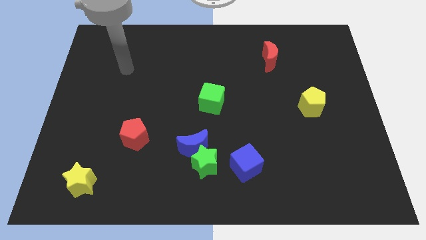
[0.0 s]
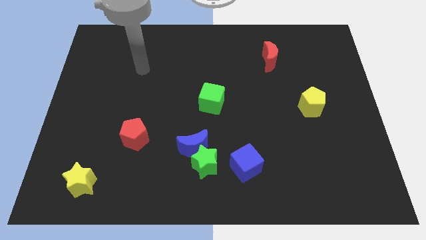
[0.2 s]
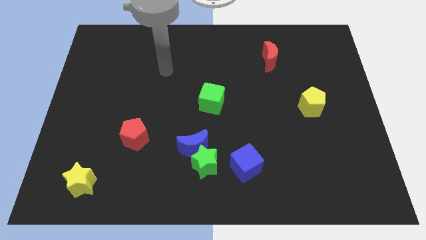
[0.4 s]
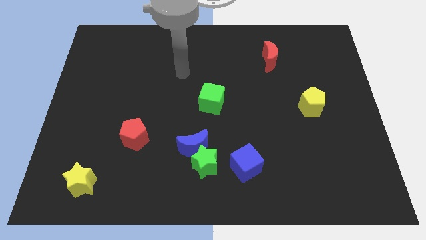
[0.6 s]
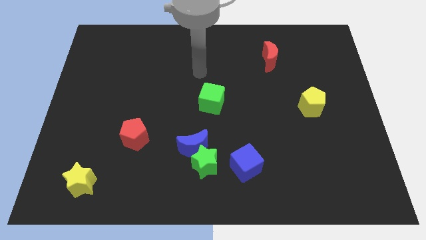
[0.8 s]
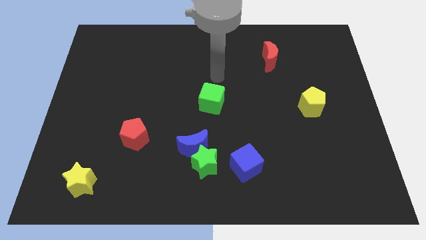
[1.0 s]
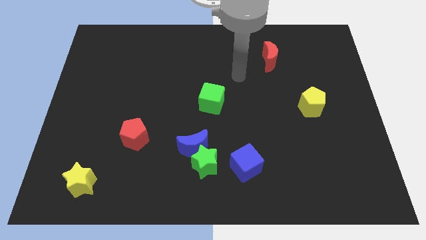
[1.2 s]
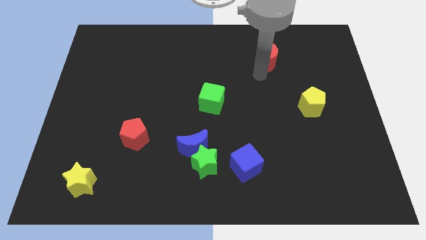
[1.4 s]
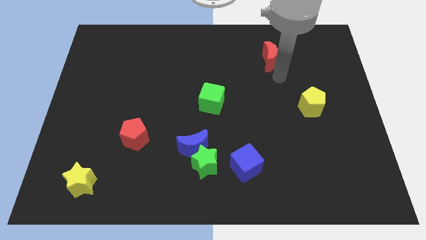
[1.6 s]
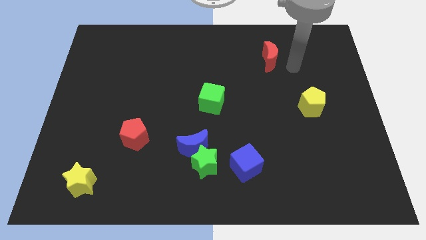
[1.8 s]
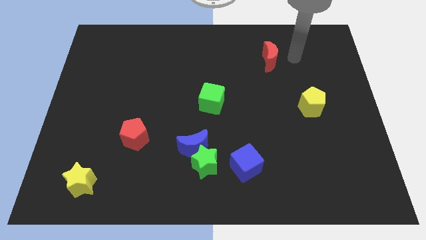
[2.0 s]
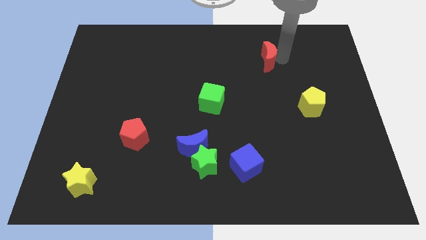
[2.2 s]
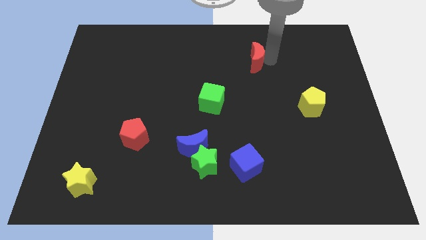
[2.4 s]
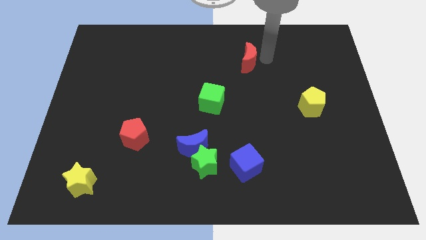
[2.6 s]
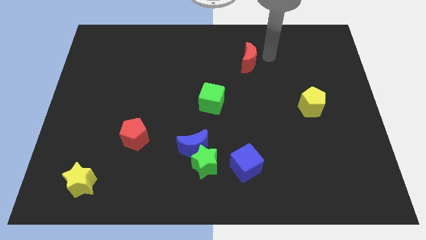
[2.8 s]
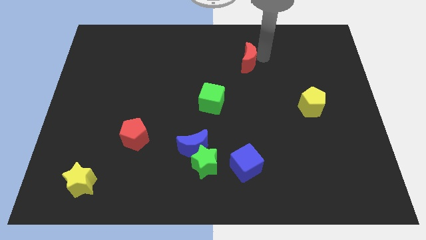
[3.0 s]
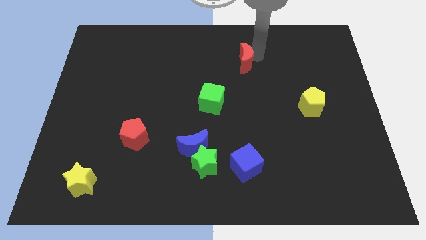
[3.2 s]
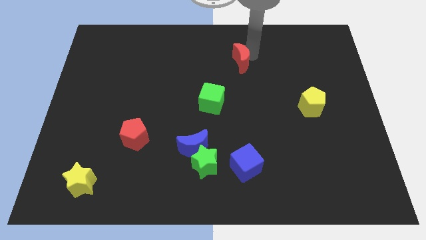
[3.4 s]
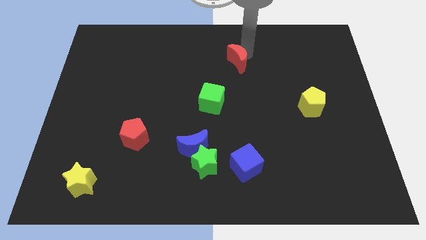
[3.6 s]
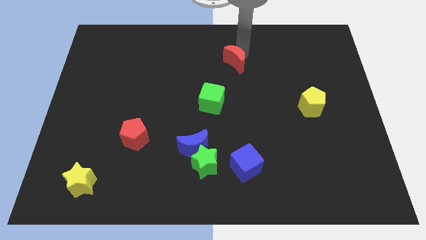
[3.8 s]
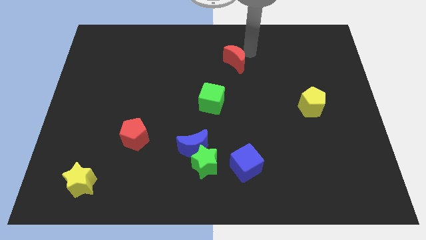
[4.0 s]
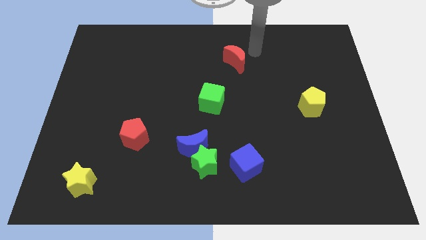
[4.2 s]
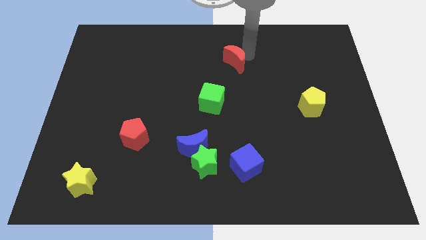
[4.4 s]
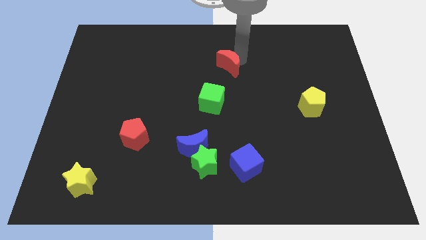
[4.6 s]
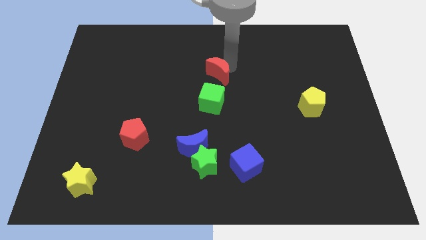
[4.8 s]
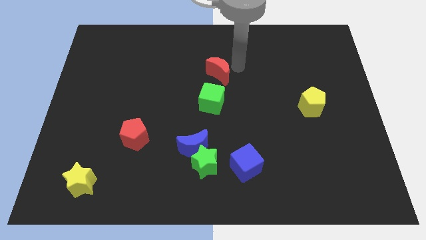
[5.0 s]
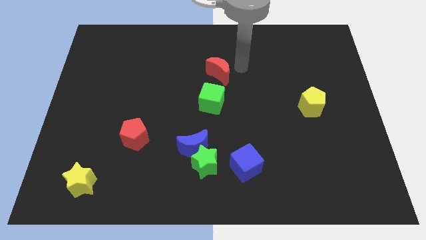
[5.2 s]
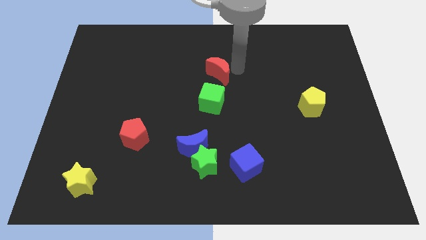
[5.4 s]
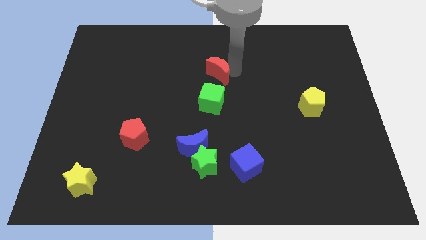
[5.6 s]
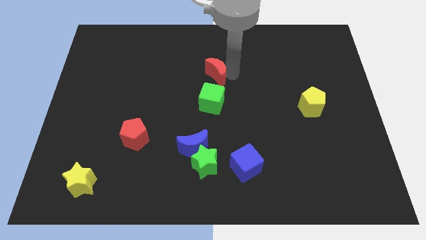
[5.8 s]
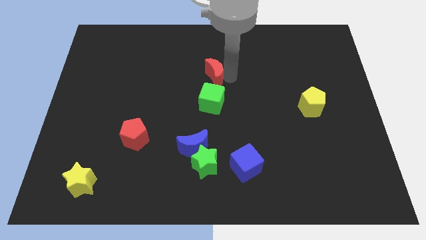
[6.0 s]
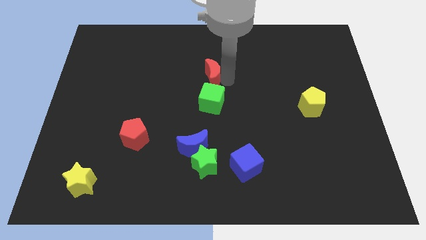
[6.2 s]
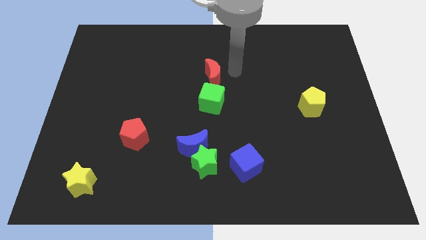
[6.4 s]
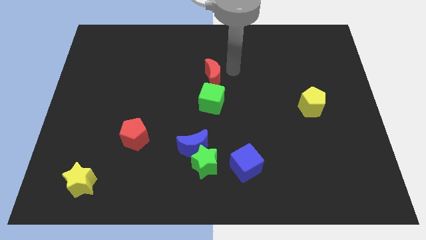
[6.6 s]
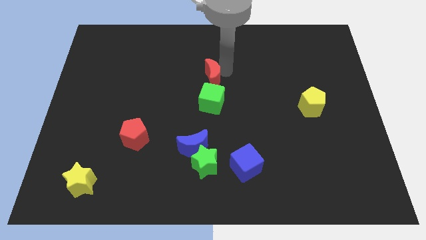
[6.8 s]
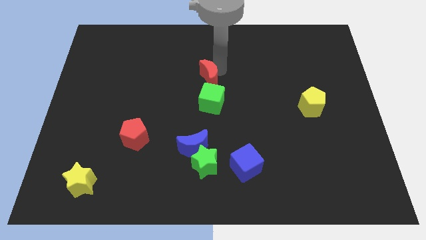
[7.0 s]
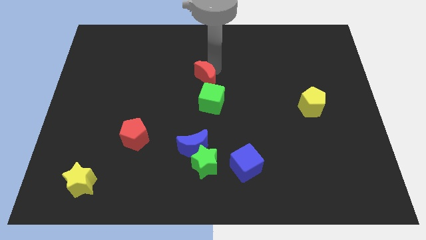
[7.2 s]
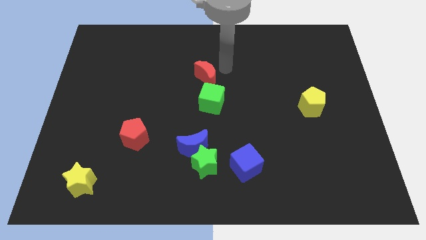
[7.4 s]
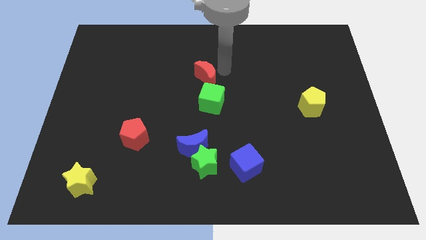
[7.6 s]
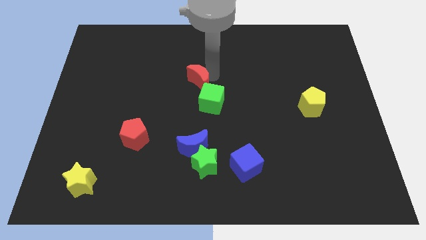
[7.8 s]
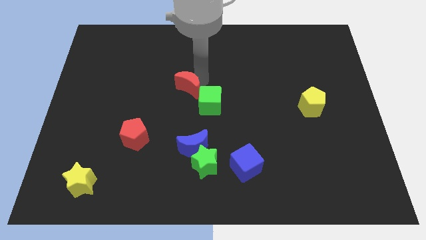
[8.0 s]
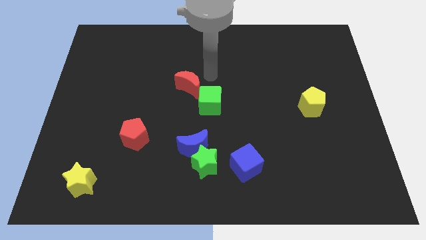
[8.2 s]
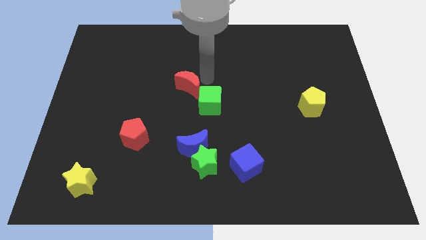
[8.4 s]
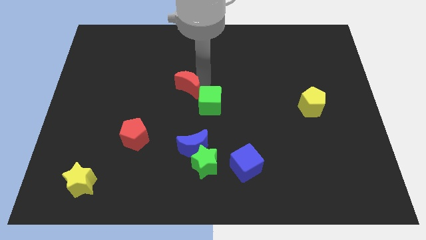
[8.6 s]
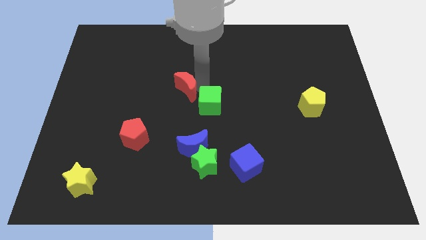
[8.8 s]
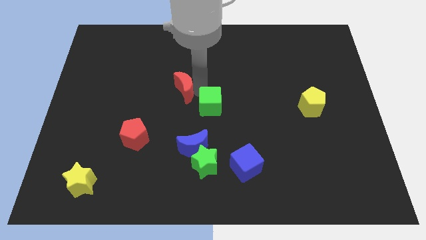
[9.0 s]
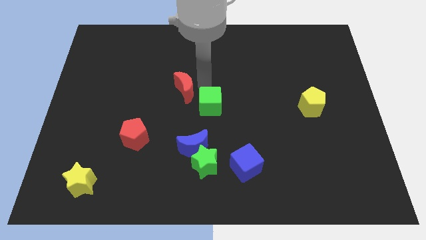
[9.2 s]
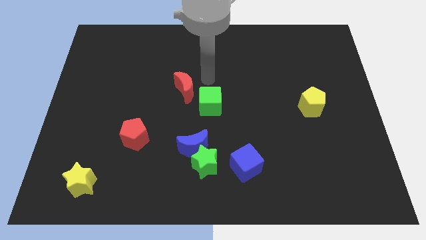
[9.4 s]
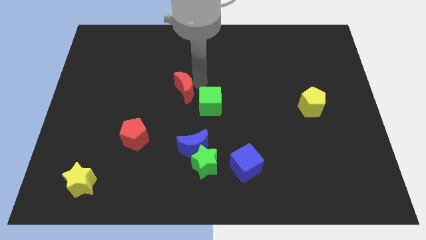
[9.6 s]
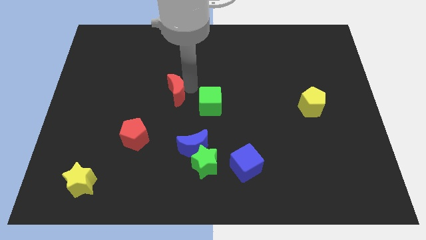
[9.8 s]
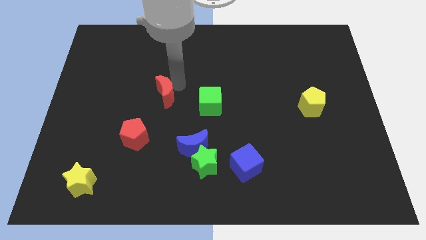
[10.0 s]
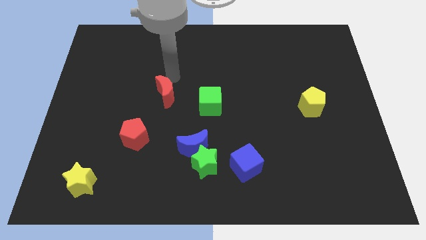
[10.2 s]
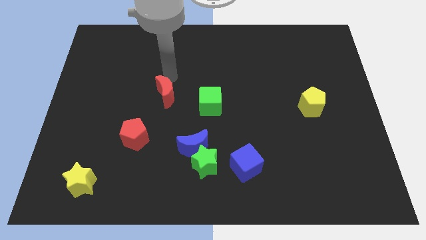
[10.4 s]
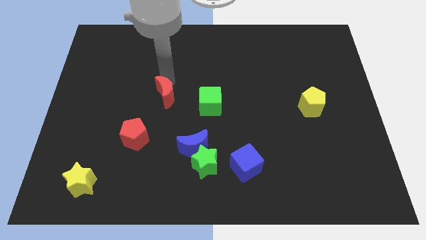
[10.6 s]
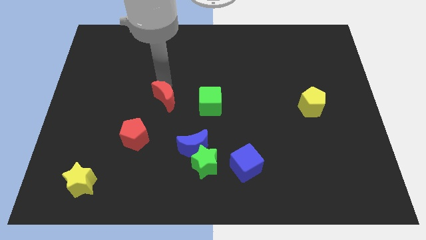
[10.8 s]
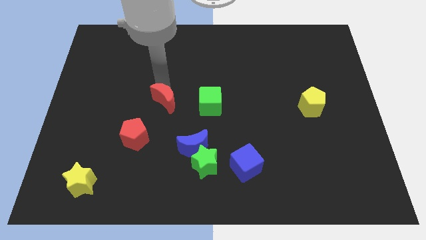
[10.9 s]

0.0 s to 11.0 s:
slide the red moon diagonally up and to the right of the red pentagon

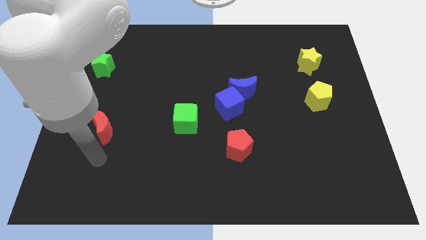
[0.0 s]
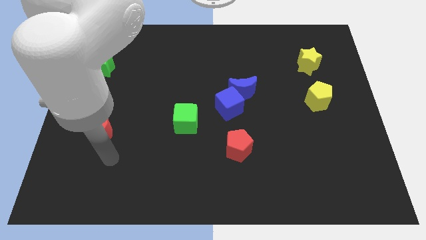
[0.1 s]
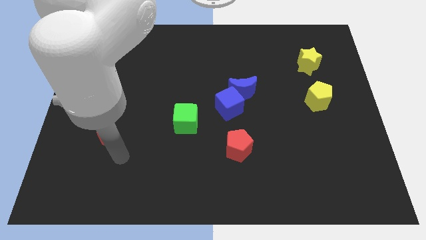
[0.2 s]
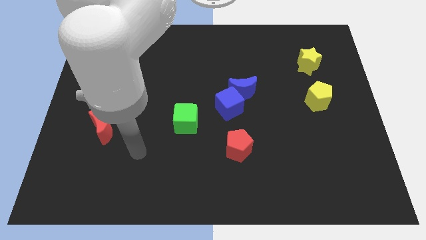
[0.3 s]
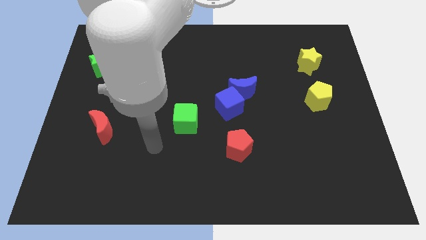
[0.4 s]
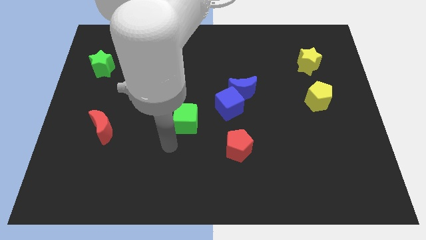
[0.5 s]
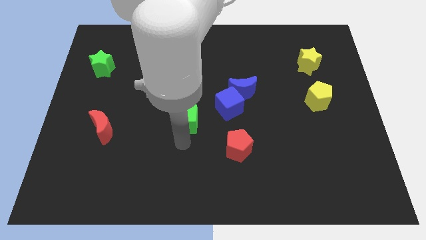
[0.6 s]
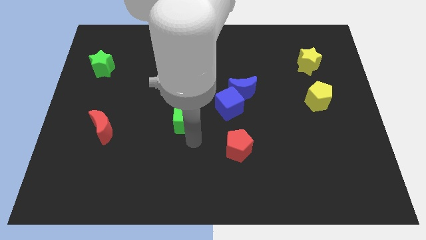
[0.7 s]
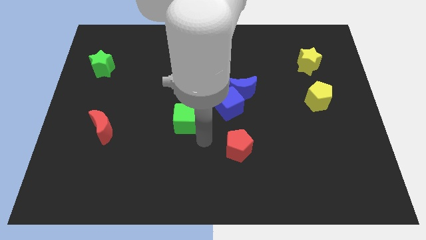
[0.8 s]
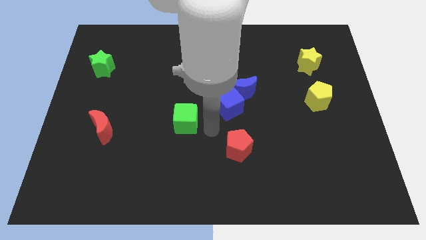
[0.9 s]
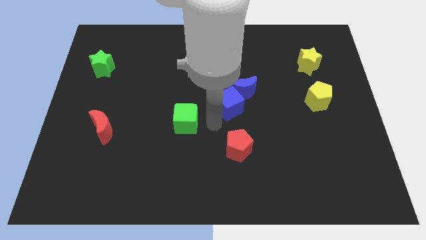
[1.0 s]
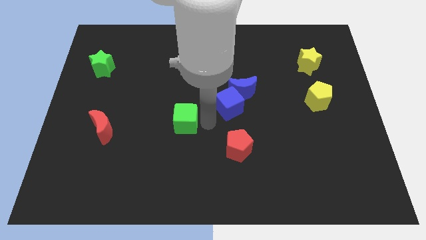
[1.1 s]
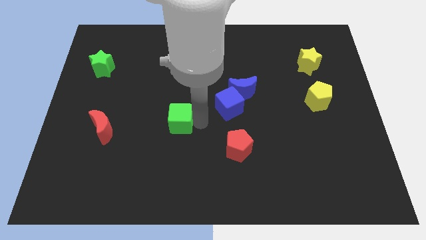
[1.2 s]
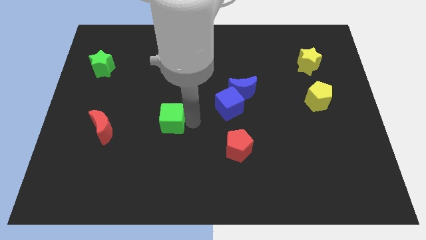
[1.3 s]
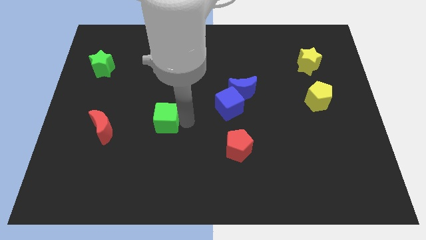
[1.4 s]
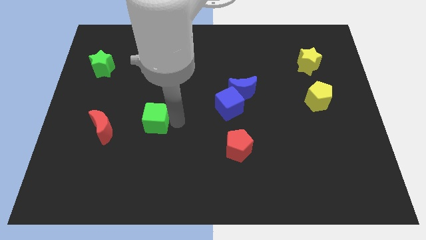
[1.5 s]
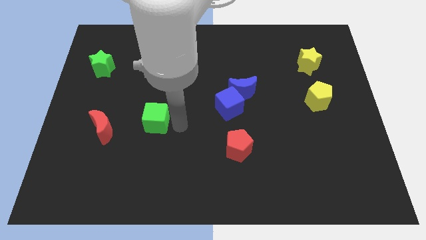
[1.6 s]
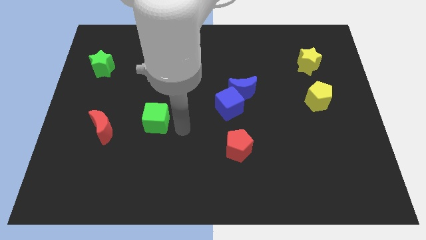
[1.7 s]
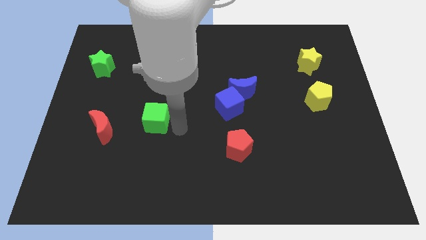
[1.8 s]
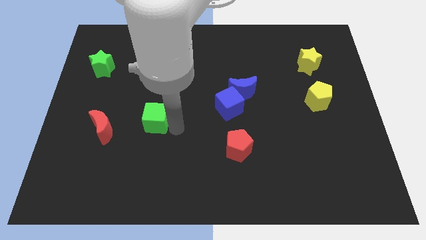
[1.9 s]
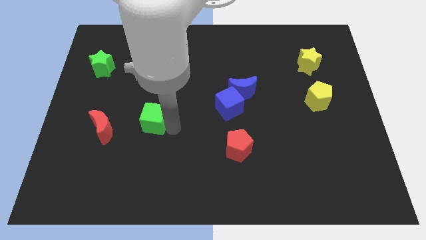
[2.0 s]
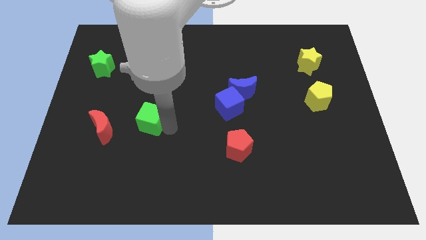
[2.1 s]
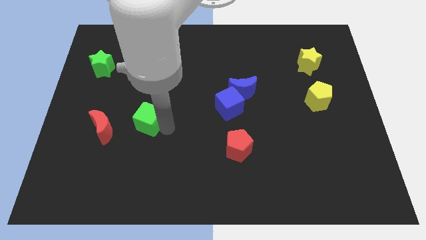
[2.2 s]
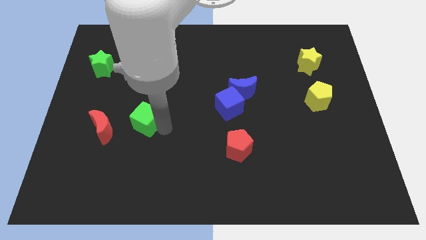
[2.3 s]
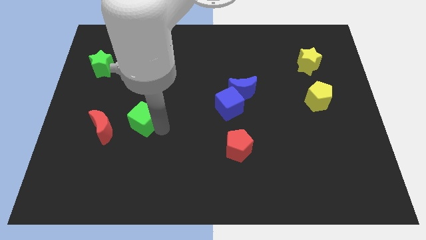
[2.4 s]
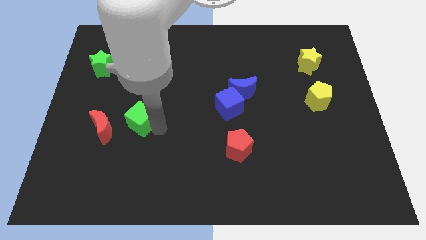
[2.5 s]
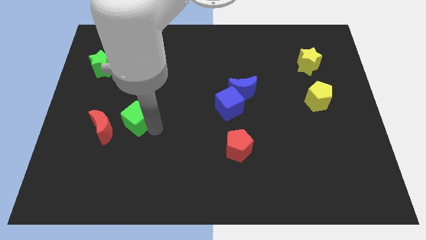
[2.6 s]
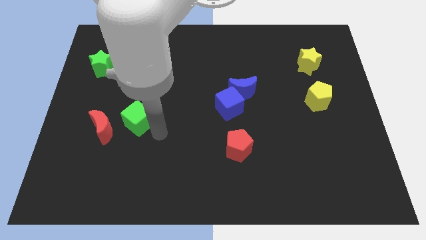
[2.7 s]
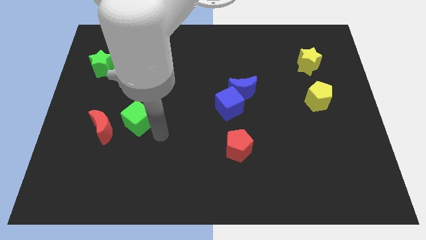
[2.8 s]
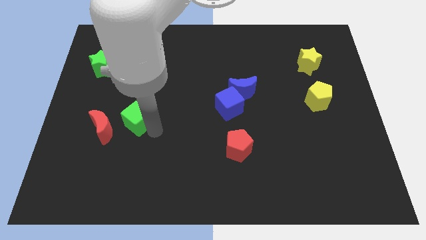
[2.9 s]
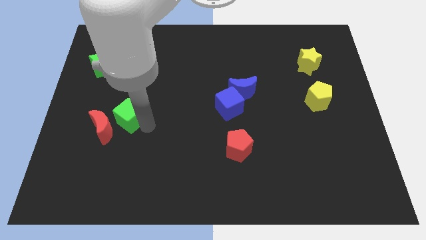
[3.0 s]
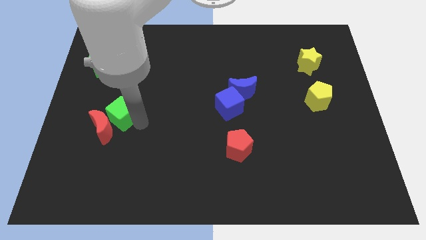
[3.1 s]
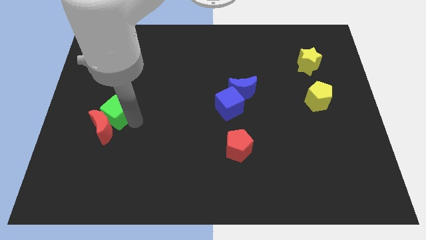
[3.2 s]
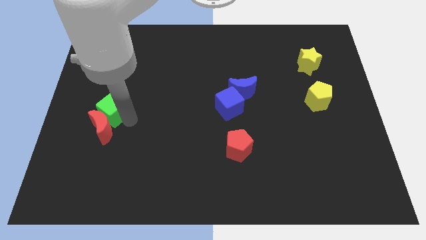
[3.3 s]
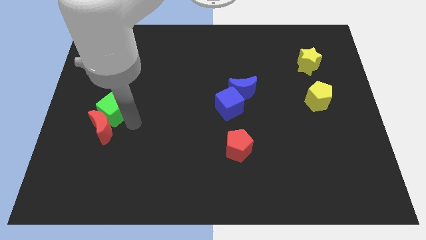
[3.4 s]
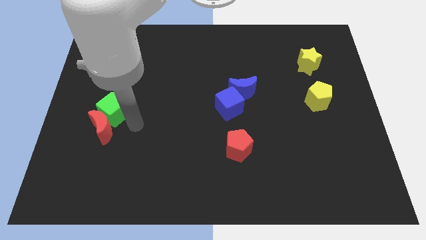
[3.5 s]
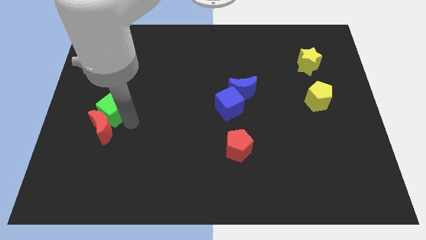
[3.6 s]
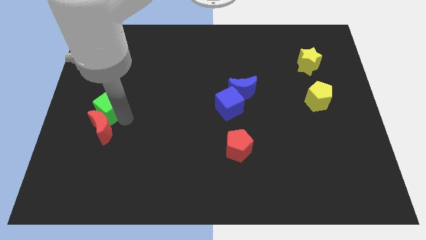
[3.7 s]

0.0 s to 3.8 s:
put the green cube below the green star
